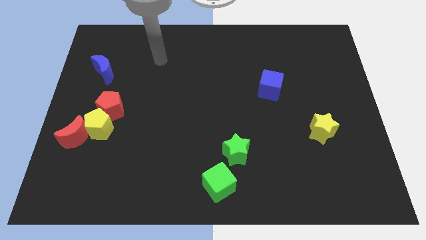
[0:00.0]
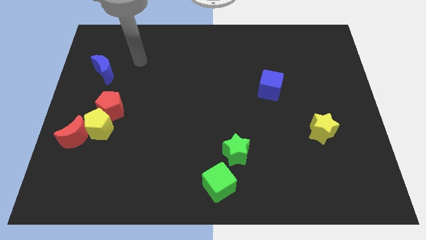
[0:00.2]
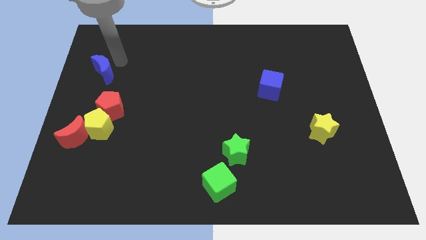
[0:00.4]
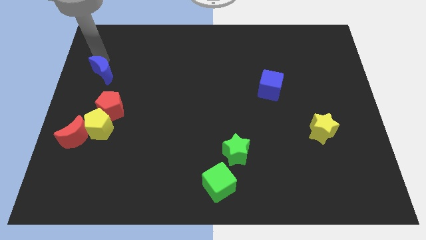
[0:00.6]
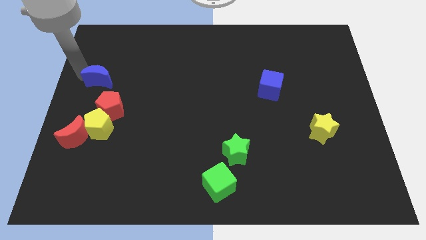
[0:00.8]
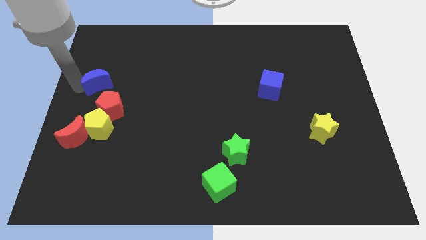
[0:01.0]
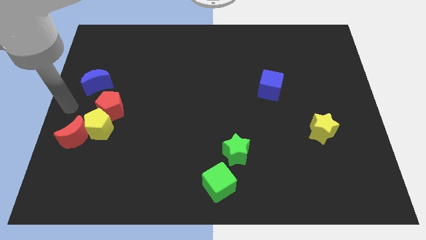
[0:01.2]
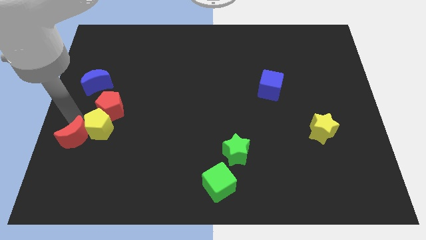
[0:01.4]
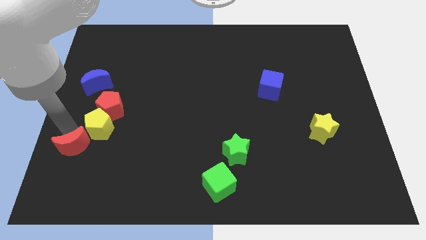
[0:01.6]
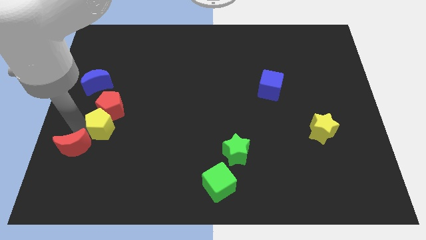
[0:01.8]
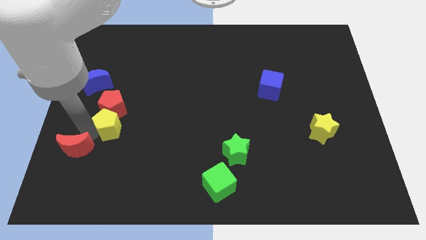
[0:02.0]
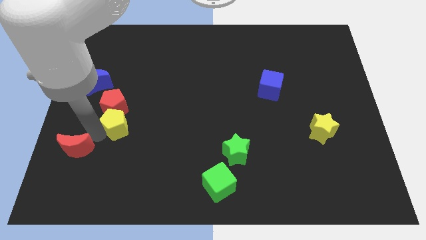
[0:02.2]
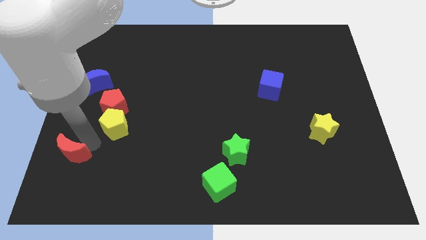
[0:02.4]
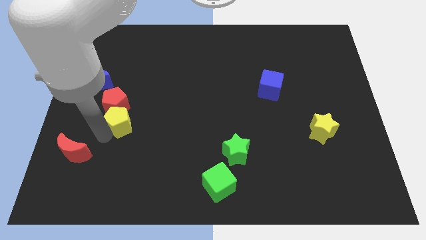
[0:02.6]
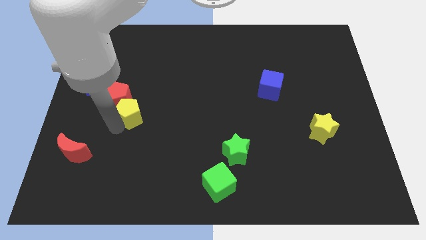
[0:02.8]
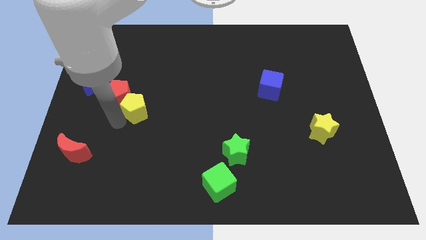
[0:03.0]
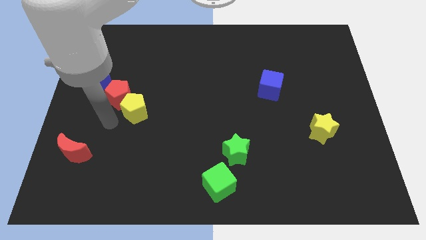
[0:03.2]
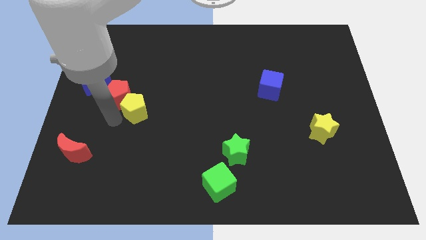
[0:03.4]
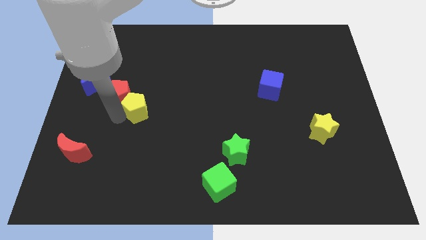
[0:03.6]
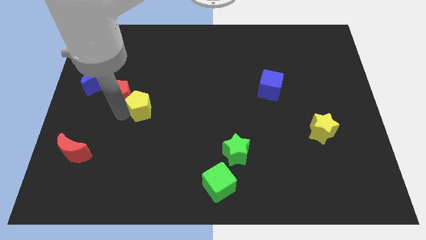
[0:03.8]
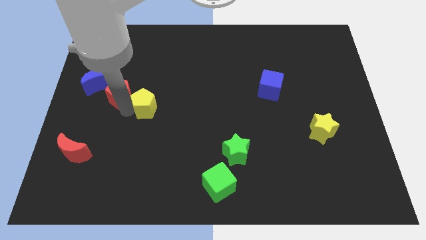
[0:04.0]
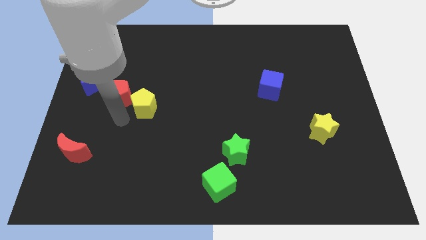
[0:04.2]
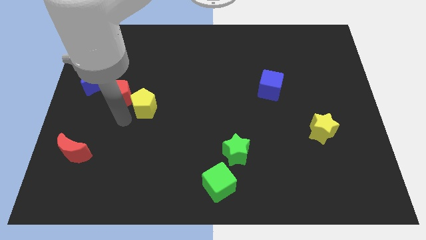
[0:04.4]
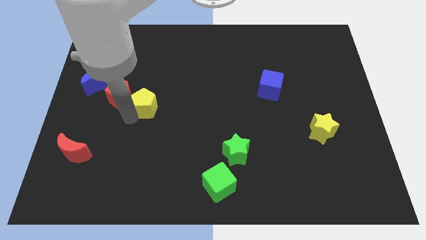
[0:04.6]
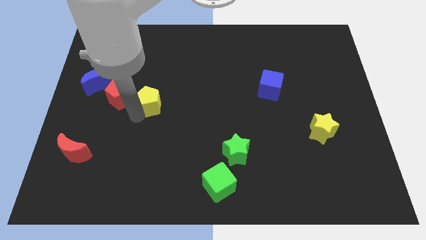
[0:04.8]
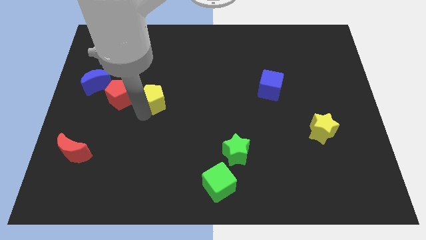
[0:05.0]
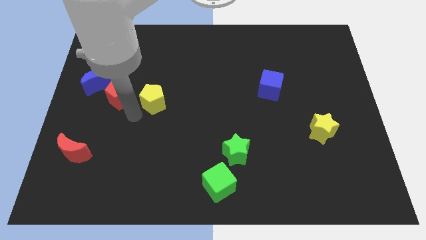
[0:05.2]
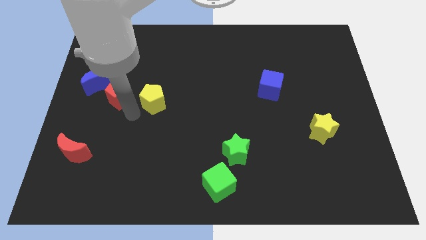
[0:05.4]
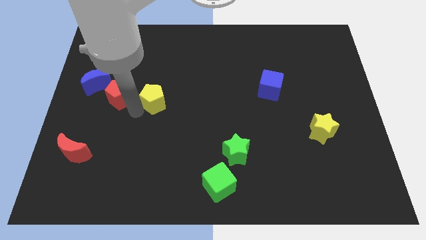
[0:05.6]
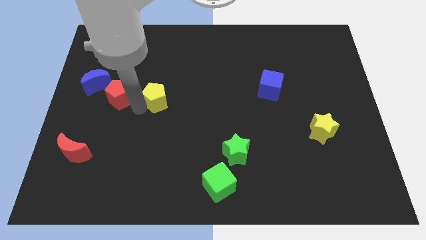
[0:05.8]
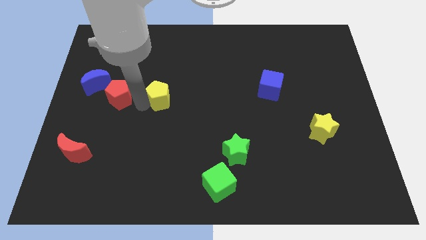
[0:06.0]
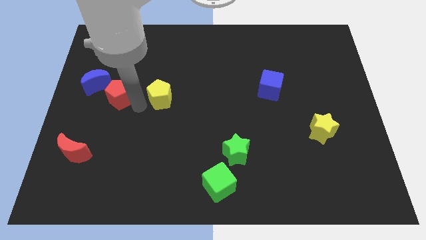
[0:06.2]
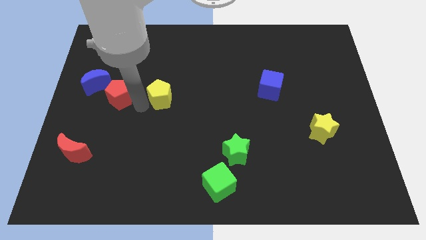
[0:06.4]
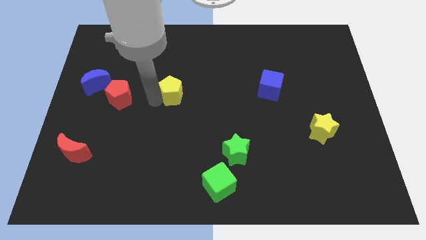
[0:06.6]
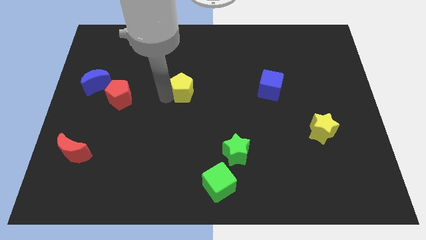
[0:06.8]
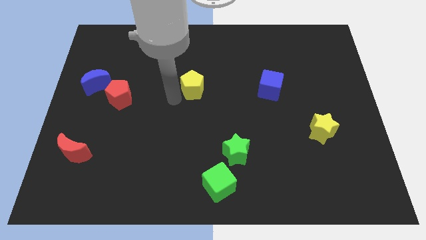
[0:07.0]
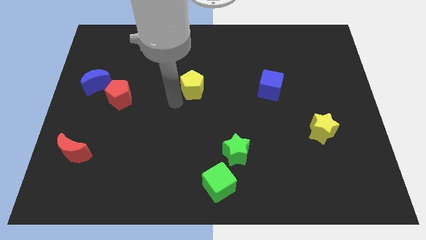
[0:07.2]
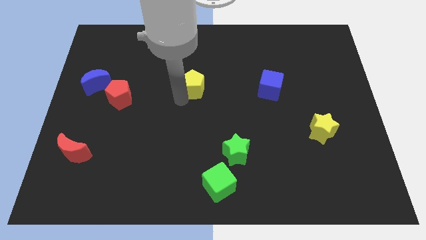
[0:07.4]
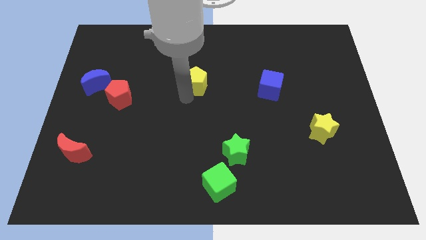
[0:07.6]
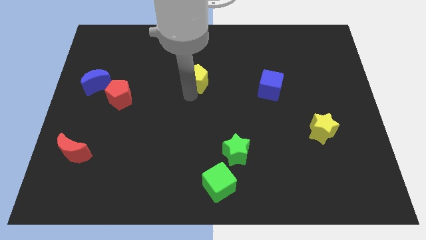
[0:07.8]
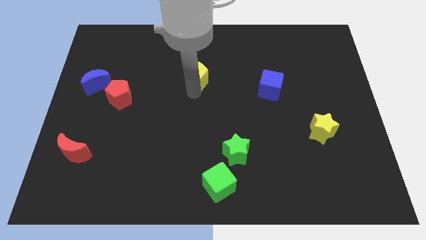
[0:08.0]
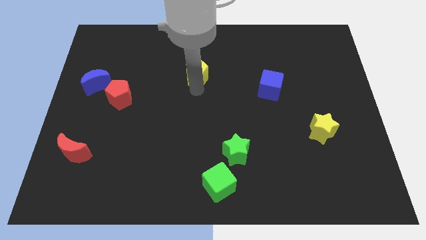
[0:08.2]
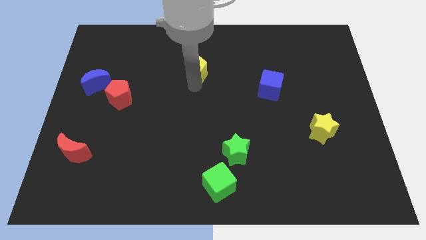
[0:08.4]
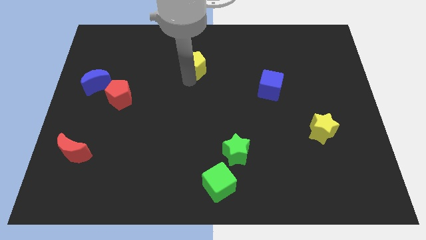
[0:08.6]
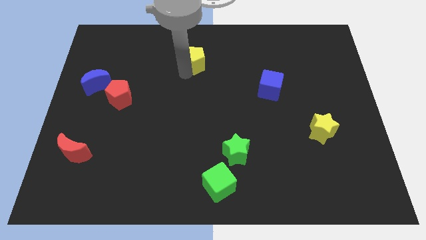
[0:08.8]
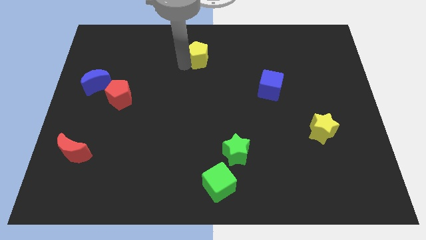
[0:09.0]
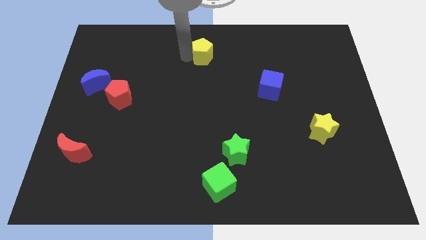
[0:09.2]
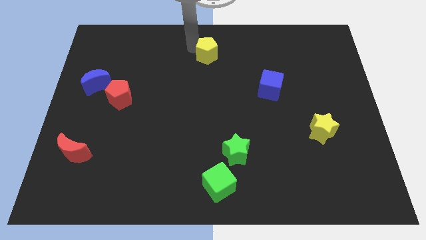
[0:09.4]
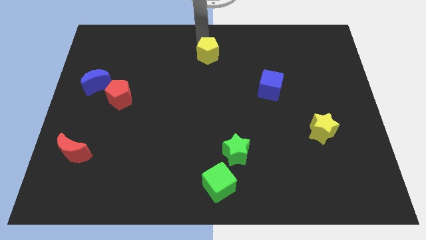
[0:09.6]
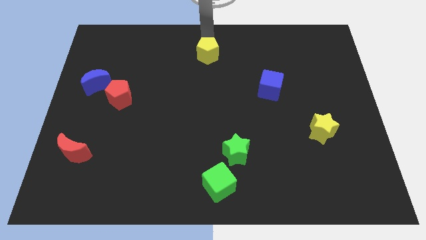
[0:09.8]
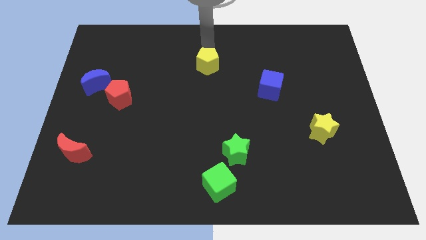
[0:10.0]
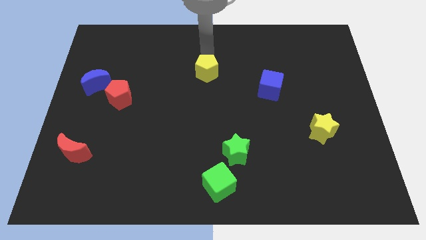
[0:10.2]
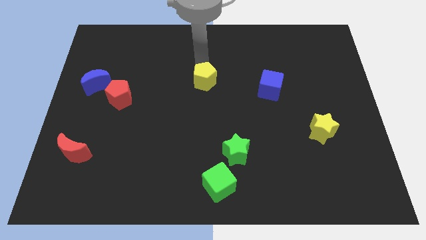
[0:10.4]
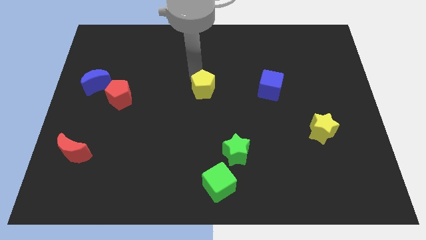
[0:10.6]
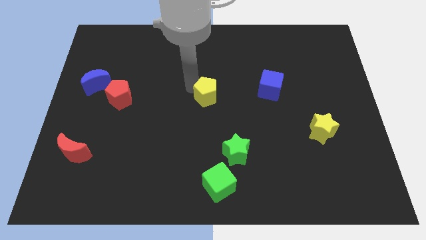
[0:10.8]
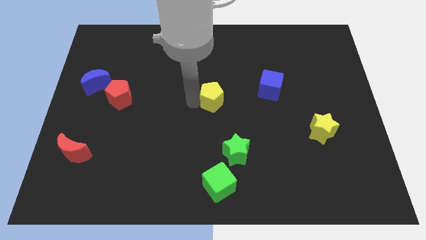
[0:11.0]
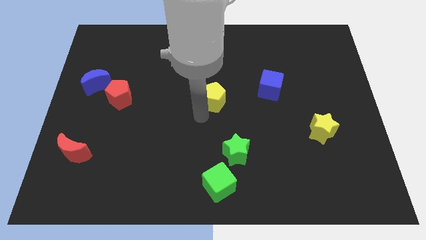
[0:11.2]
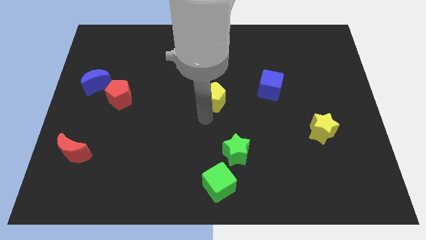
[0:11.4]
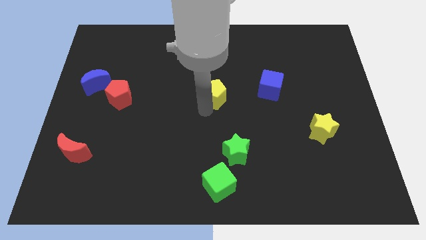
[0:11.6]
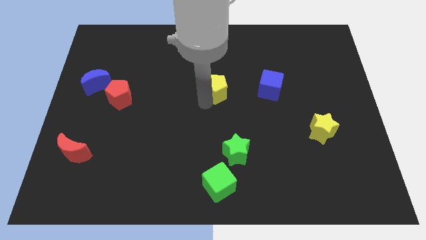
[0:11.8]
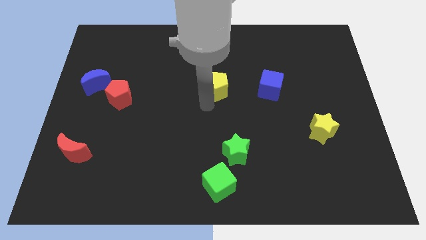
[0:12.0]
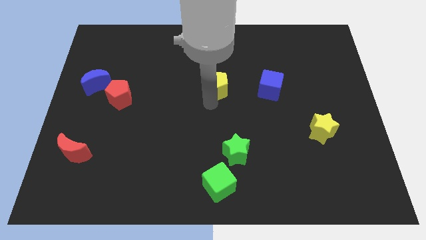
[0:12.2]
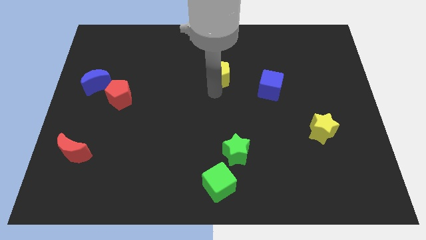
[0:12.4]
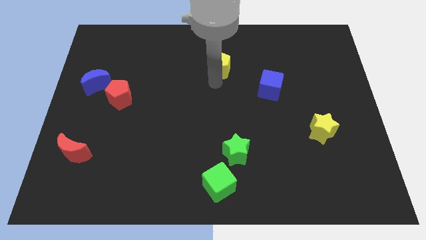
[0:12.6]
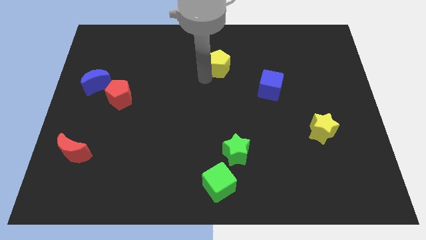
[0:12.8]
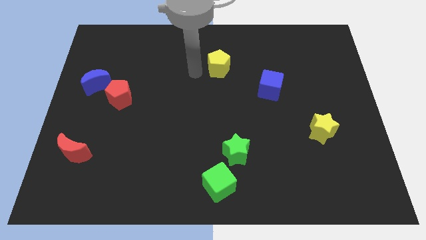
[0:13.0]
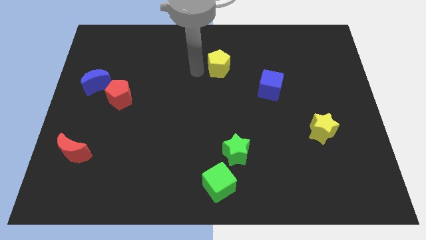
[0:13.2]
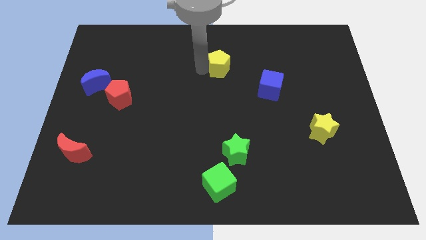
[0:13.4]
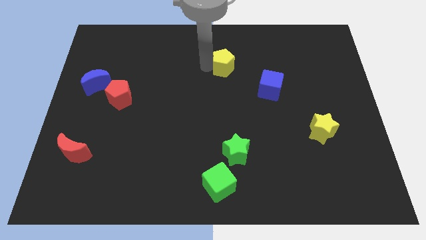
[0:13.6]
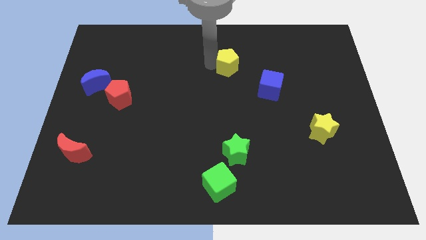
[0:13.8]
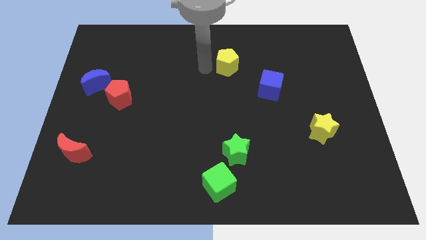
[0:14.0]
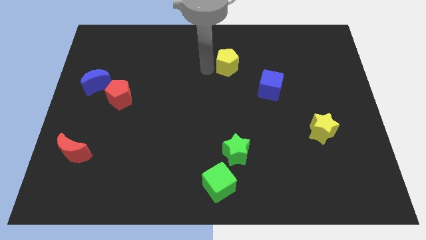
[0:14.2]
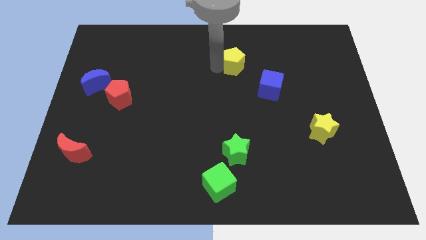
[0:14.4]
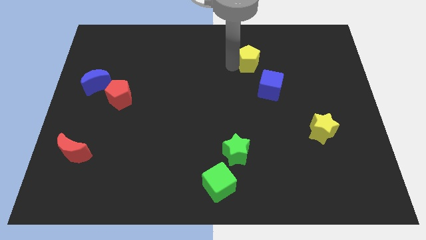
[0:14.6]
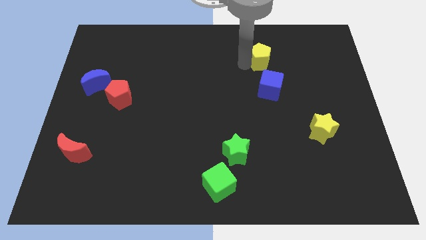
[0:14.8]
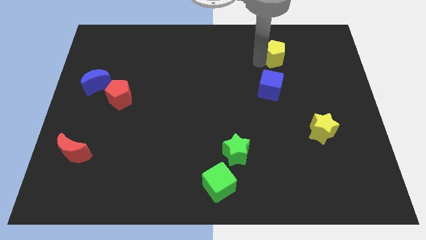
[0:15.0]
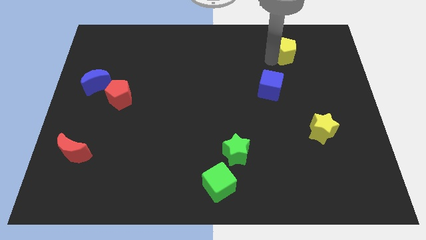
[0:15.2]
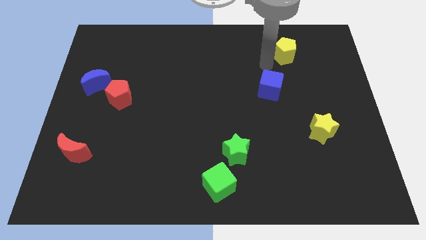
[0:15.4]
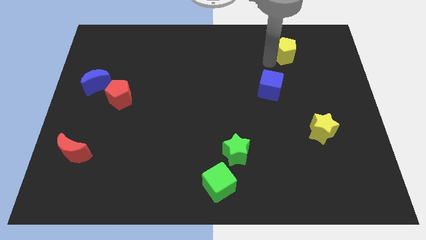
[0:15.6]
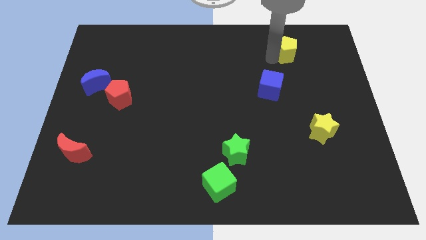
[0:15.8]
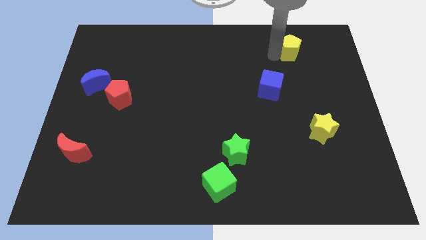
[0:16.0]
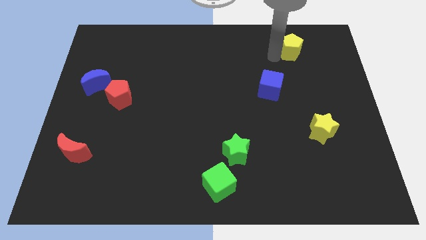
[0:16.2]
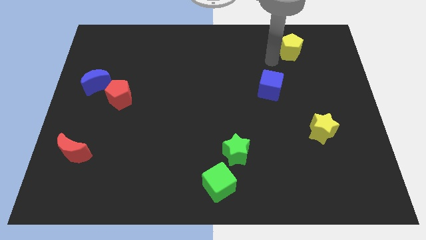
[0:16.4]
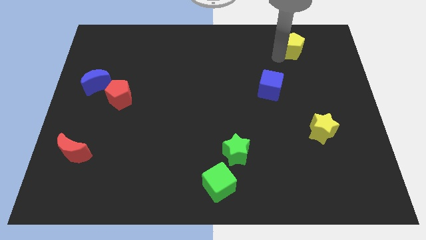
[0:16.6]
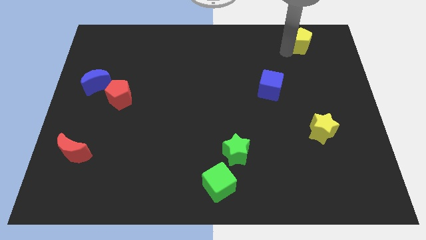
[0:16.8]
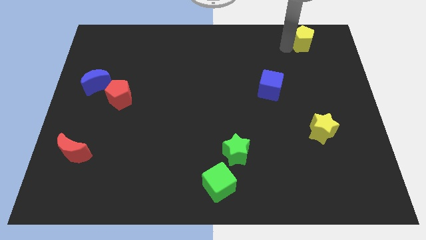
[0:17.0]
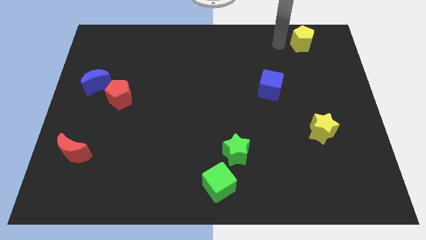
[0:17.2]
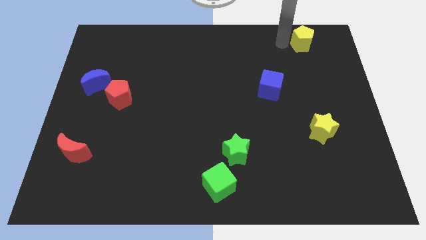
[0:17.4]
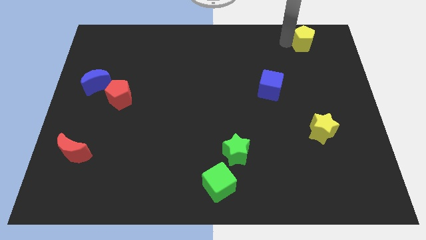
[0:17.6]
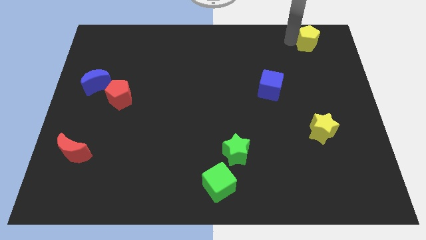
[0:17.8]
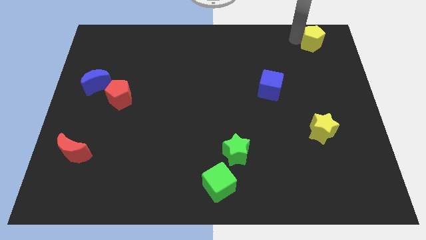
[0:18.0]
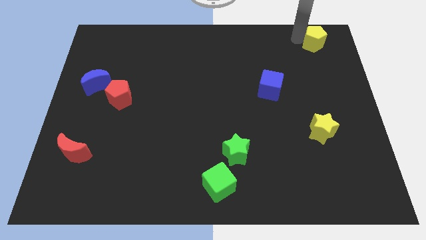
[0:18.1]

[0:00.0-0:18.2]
put the yellow pentagon to the top right
